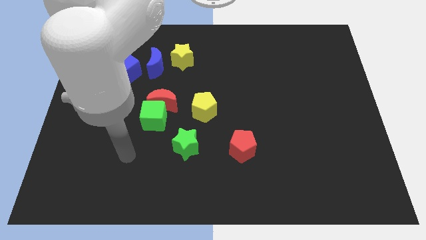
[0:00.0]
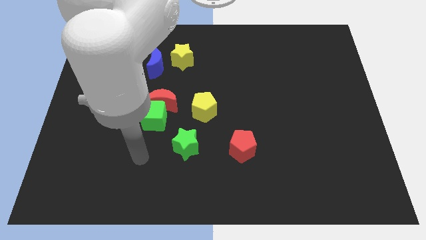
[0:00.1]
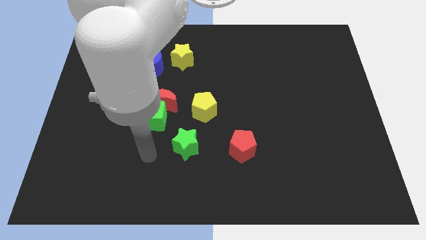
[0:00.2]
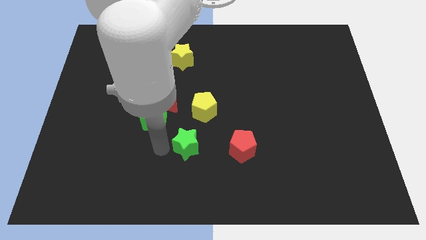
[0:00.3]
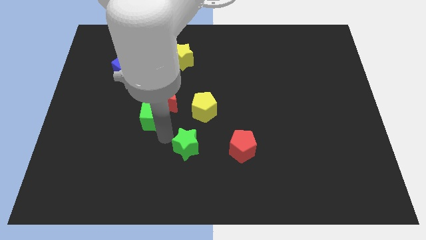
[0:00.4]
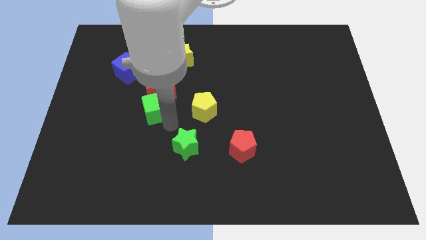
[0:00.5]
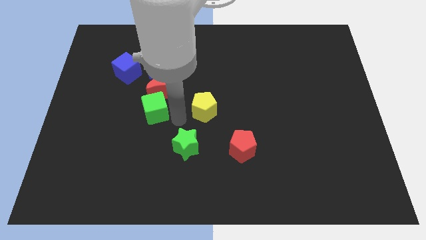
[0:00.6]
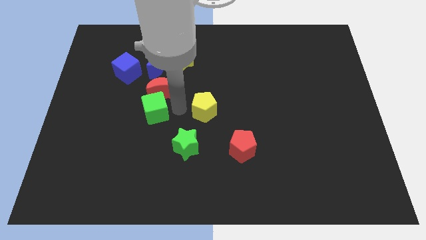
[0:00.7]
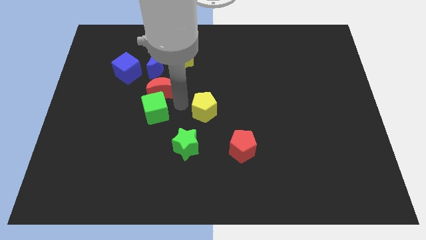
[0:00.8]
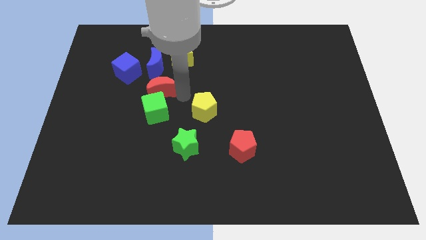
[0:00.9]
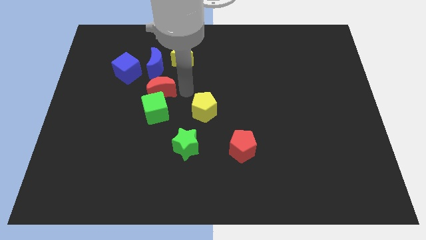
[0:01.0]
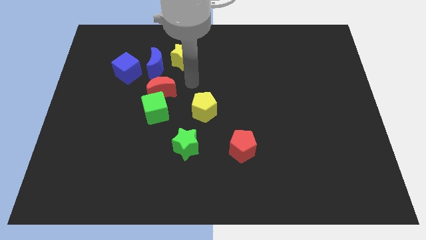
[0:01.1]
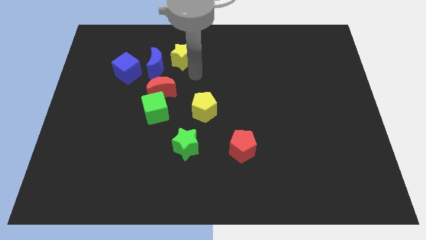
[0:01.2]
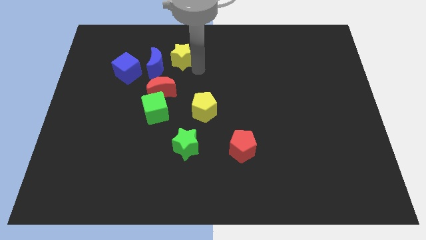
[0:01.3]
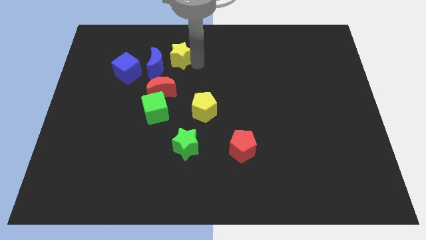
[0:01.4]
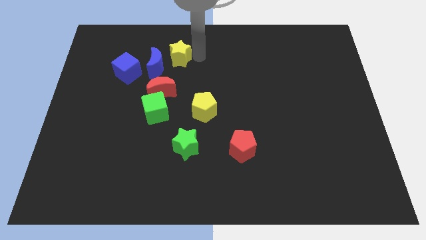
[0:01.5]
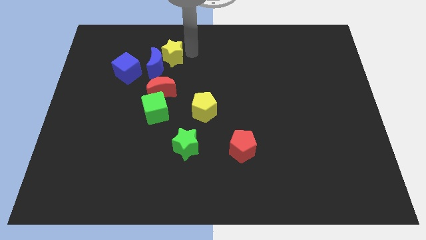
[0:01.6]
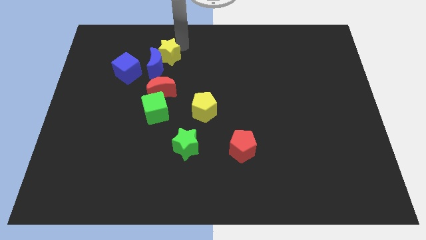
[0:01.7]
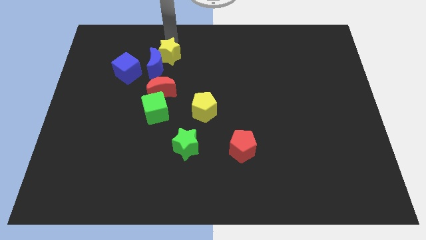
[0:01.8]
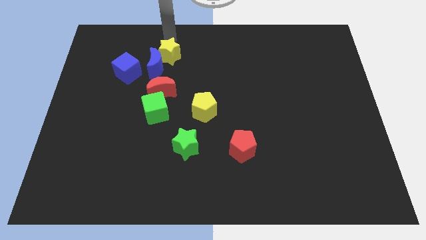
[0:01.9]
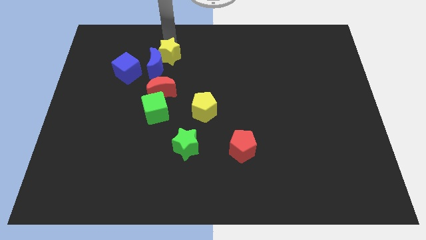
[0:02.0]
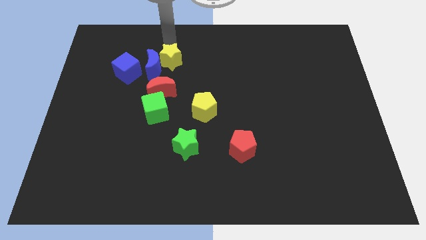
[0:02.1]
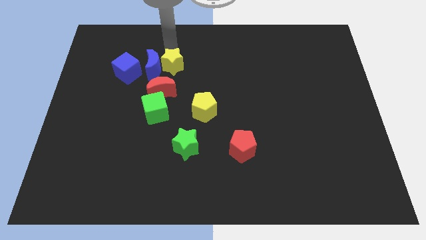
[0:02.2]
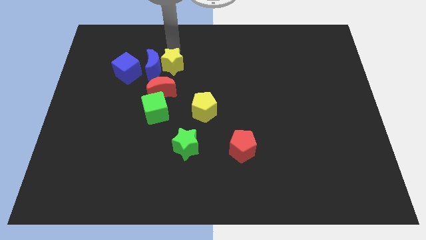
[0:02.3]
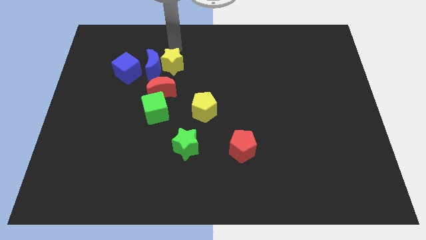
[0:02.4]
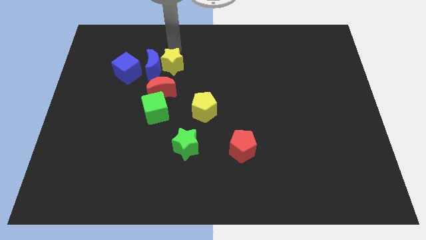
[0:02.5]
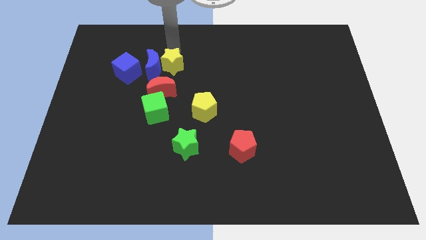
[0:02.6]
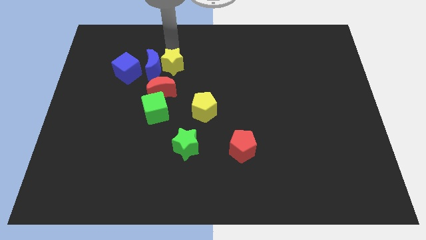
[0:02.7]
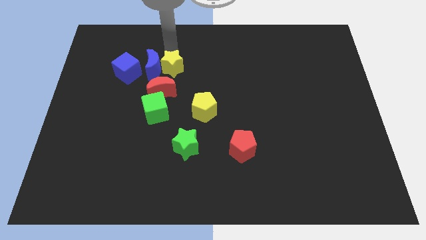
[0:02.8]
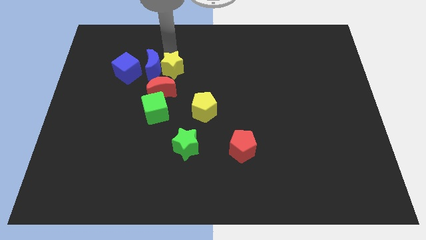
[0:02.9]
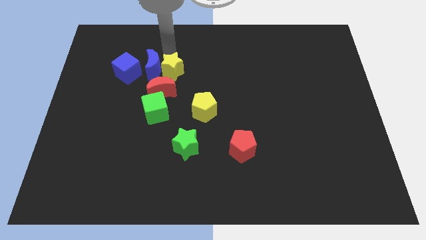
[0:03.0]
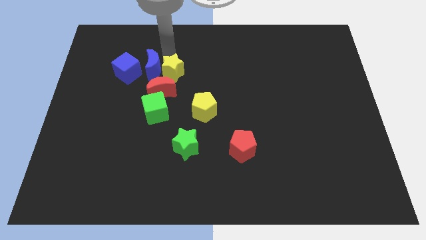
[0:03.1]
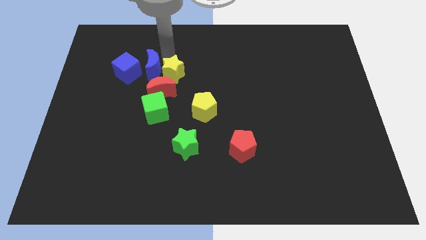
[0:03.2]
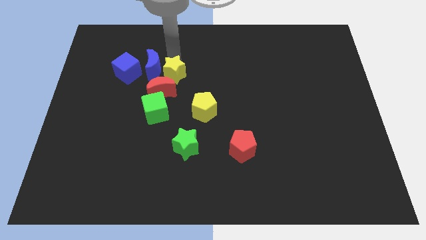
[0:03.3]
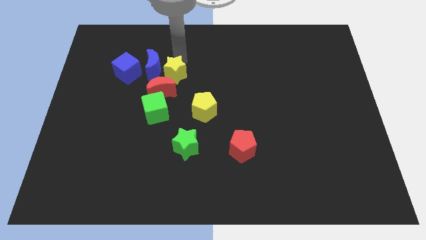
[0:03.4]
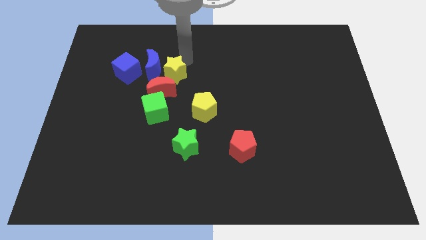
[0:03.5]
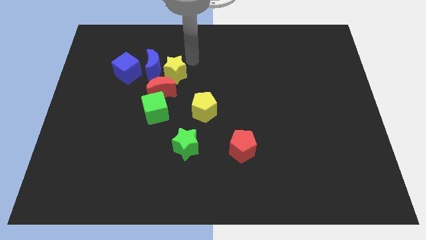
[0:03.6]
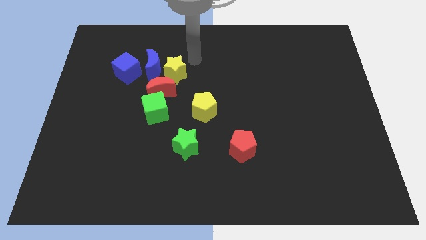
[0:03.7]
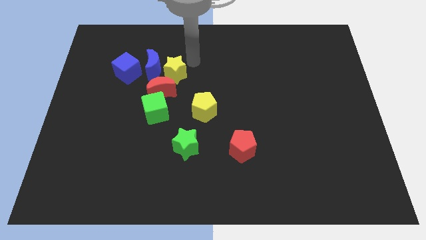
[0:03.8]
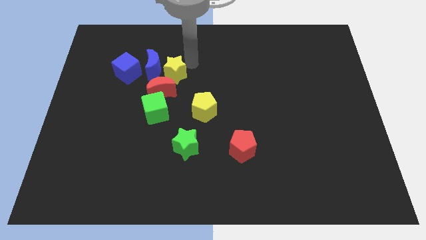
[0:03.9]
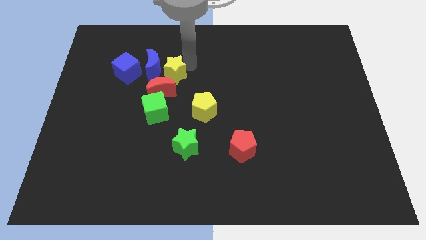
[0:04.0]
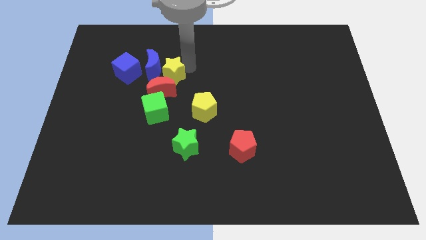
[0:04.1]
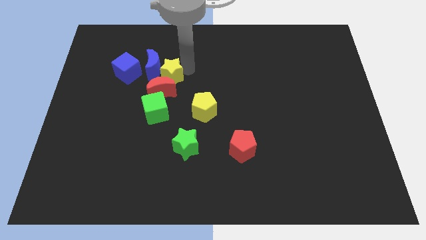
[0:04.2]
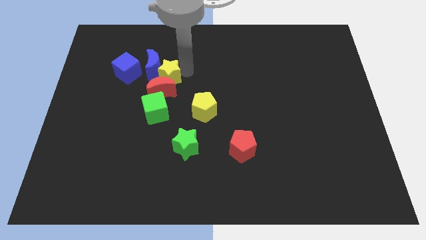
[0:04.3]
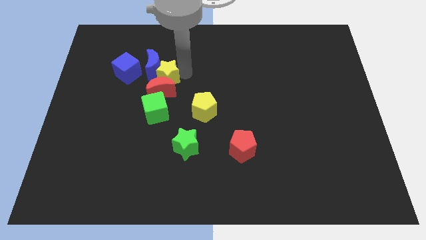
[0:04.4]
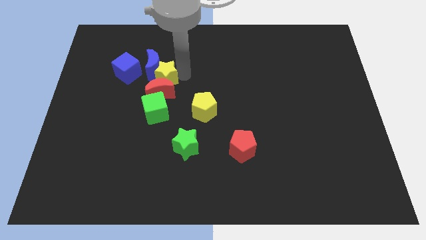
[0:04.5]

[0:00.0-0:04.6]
slide the yellow star slightly downwards and to the left diagonally

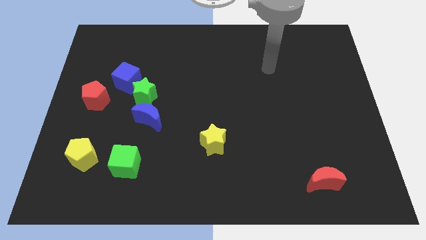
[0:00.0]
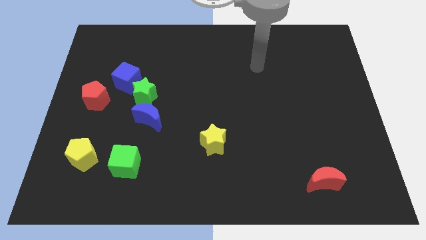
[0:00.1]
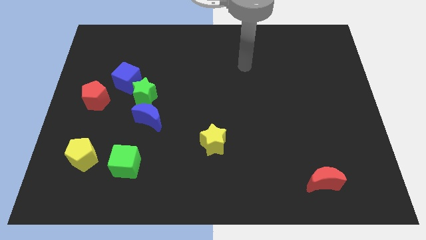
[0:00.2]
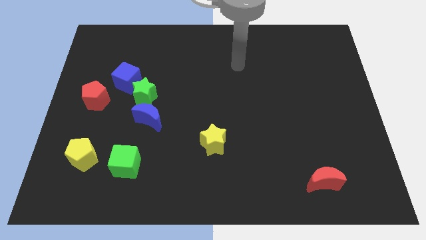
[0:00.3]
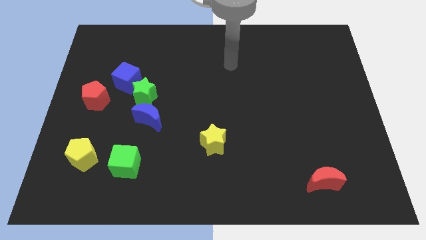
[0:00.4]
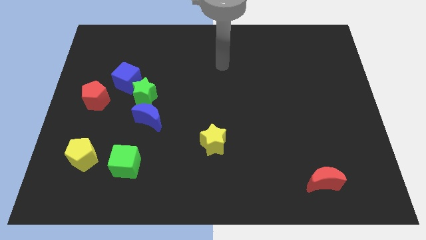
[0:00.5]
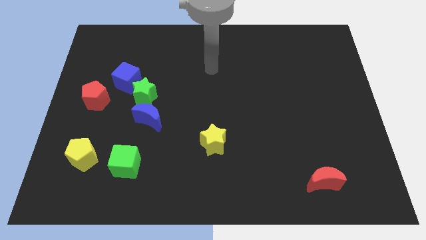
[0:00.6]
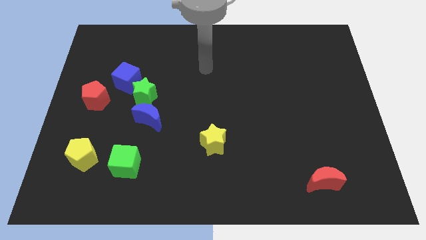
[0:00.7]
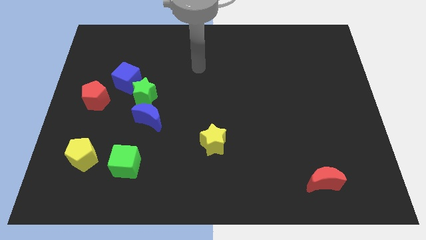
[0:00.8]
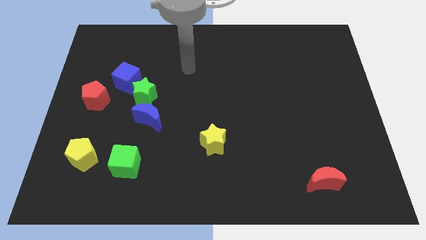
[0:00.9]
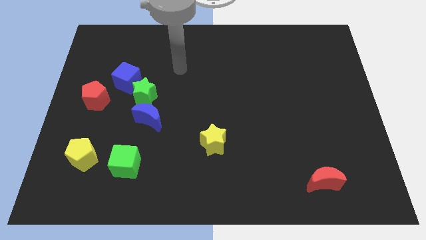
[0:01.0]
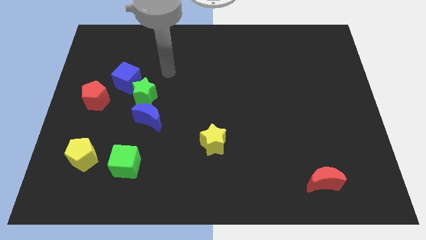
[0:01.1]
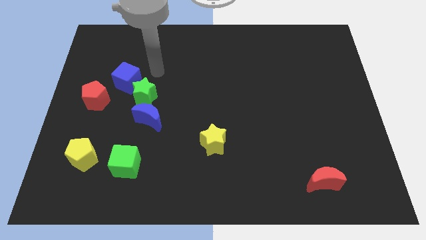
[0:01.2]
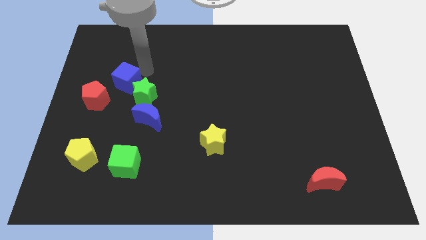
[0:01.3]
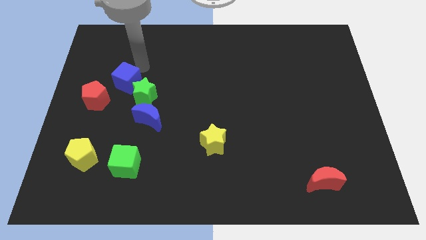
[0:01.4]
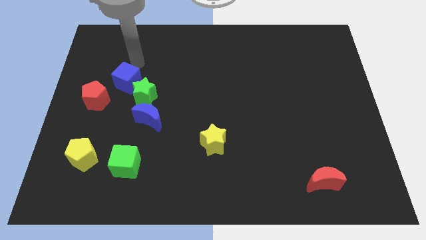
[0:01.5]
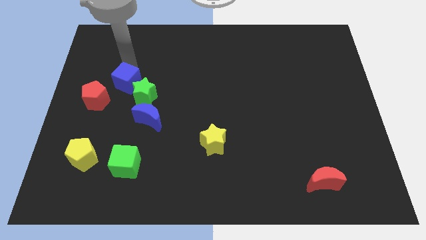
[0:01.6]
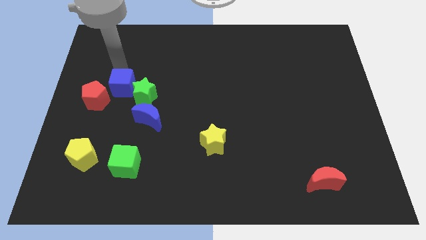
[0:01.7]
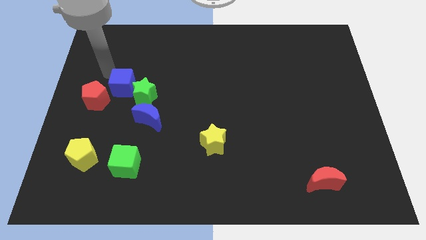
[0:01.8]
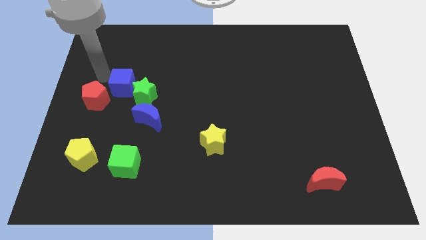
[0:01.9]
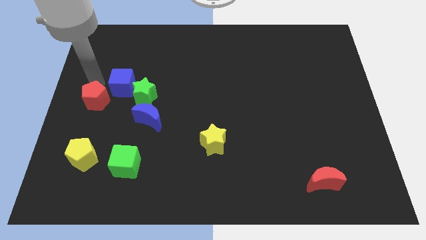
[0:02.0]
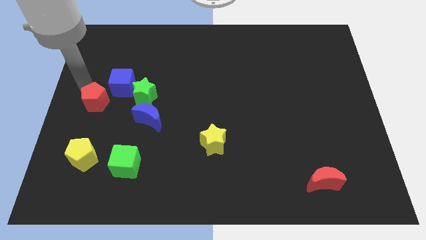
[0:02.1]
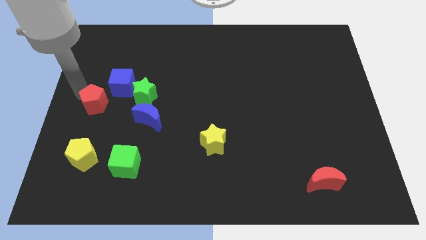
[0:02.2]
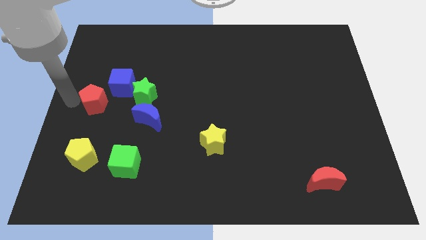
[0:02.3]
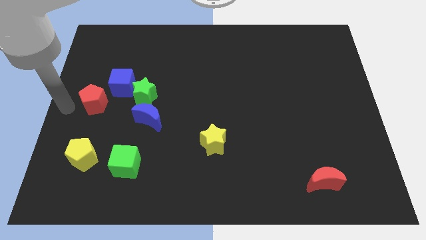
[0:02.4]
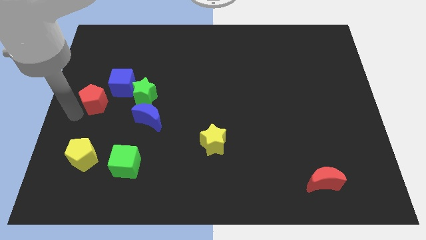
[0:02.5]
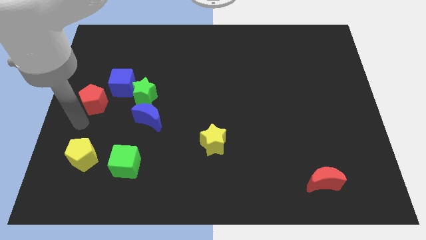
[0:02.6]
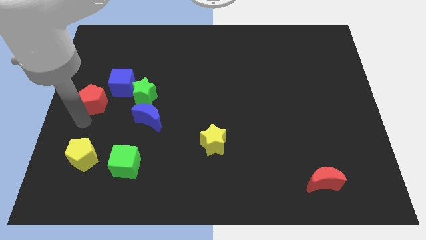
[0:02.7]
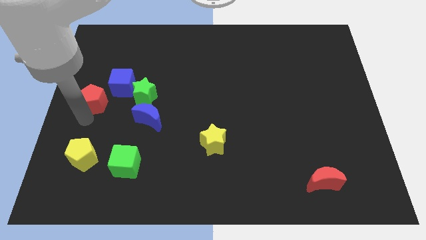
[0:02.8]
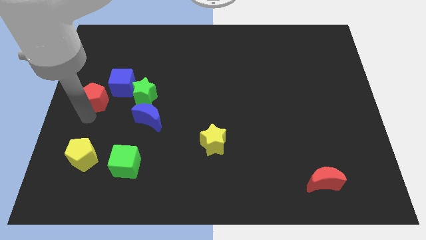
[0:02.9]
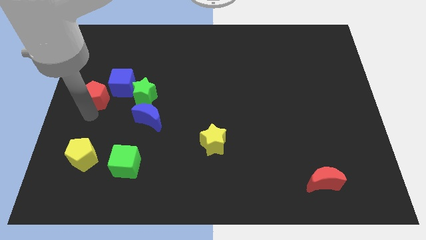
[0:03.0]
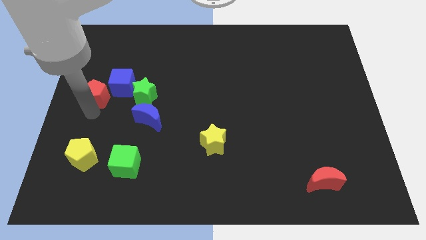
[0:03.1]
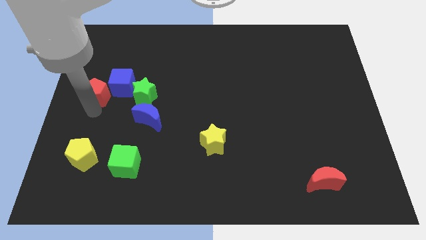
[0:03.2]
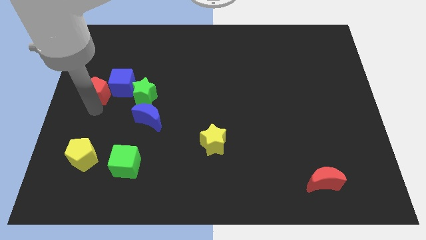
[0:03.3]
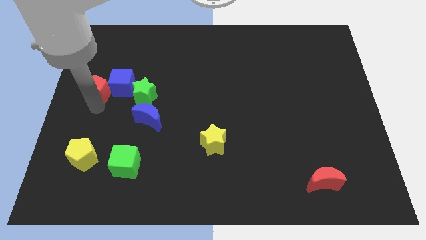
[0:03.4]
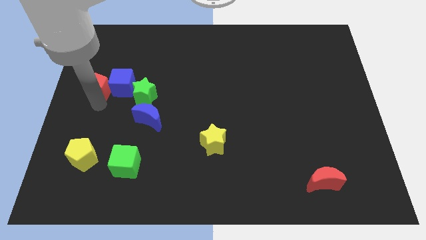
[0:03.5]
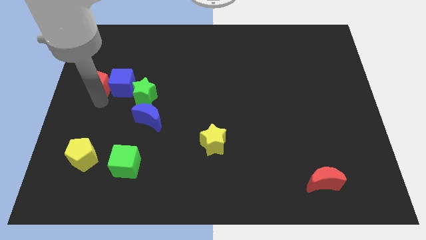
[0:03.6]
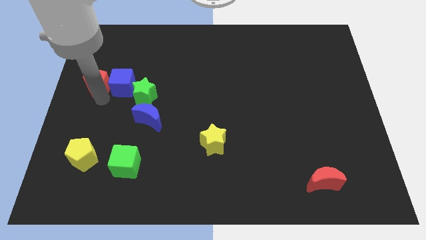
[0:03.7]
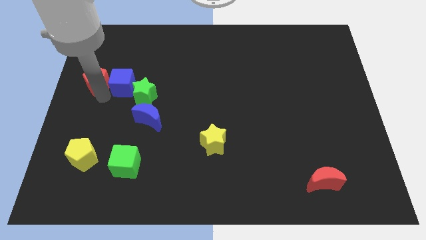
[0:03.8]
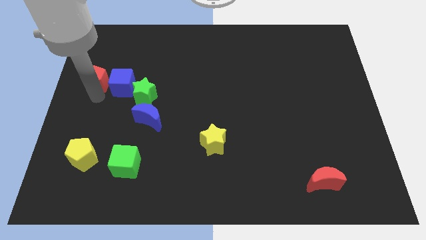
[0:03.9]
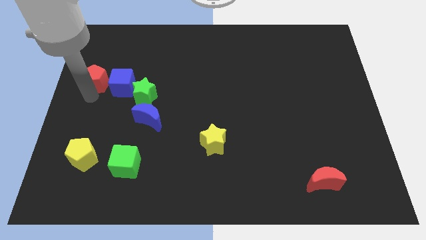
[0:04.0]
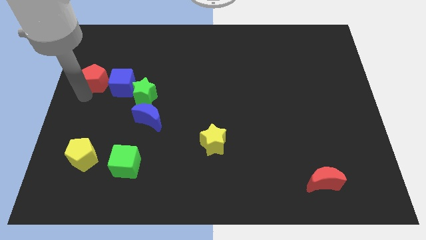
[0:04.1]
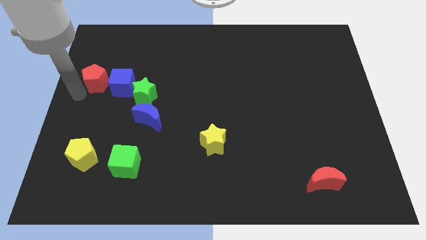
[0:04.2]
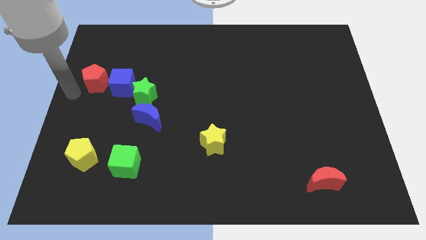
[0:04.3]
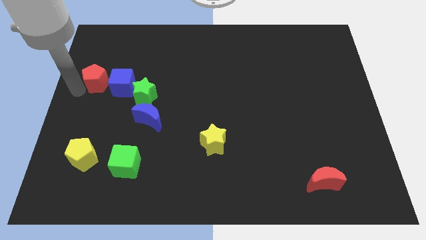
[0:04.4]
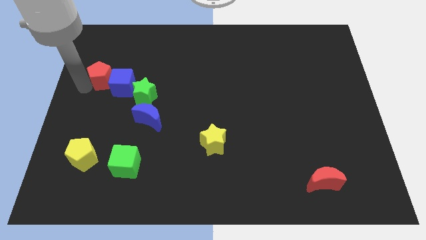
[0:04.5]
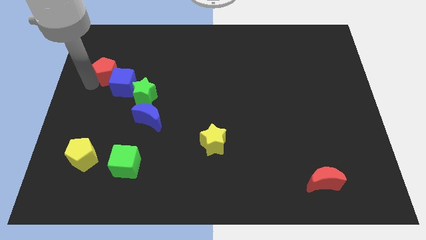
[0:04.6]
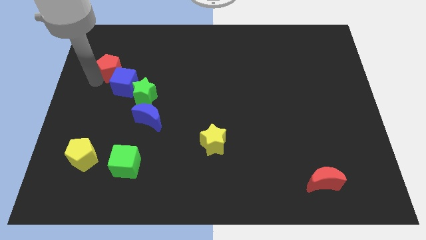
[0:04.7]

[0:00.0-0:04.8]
slide the red pentagon a little up and right diagonally
